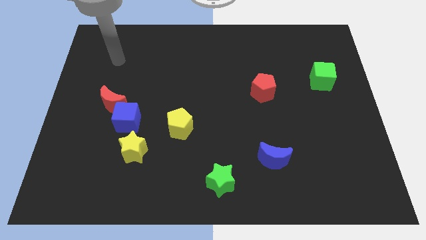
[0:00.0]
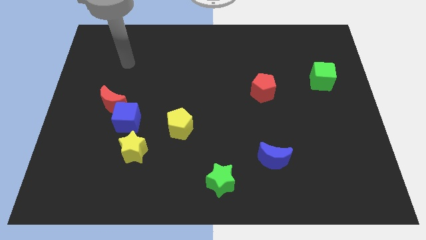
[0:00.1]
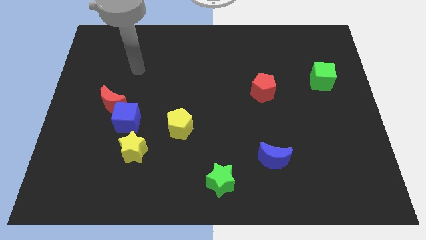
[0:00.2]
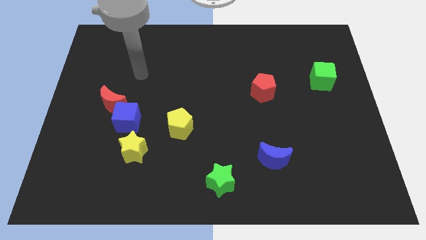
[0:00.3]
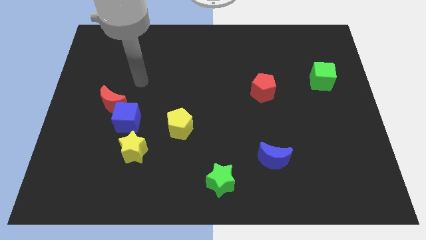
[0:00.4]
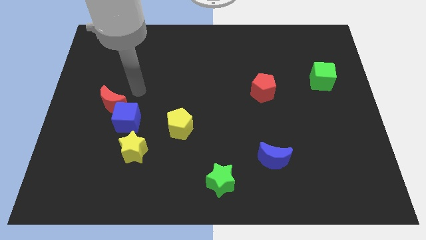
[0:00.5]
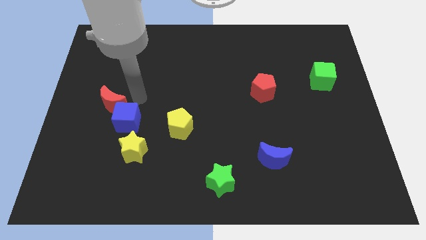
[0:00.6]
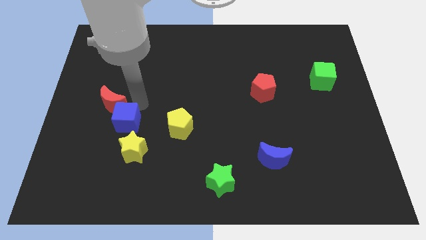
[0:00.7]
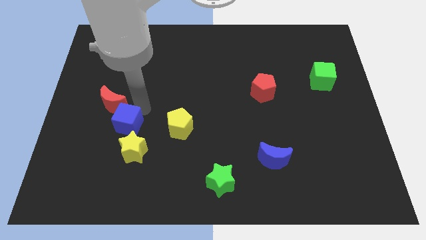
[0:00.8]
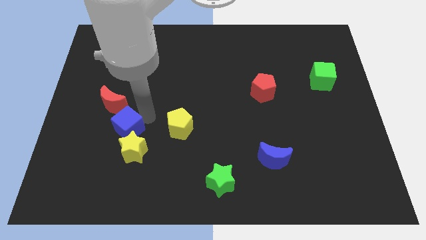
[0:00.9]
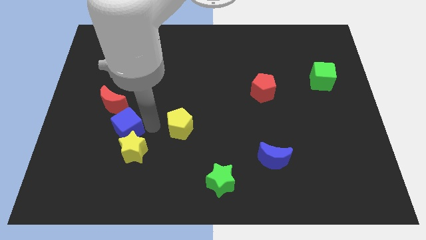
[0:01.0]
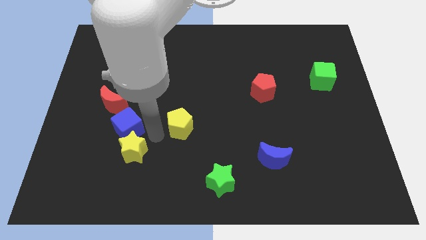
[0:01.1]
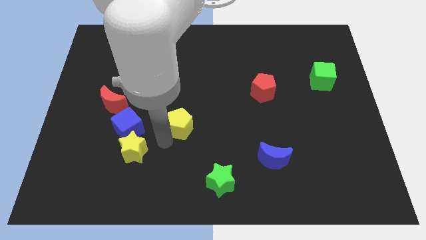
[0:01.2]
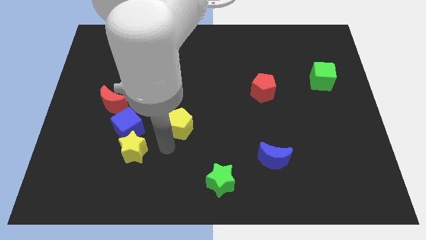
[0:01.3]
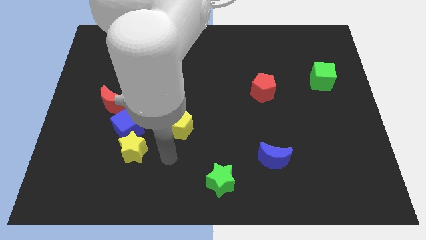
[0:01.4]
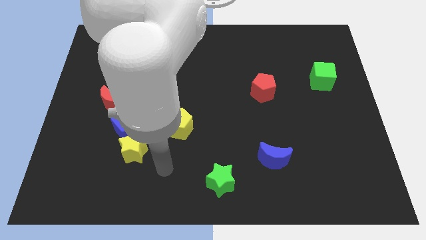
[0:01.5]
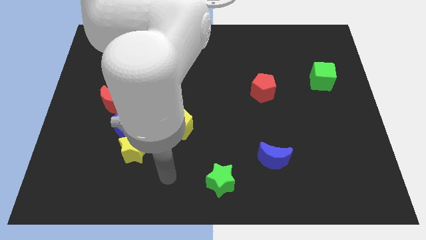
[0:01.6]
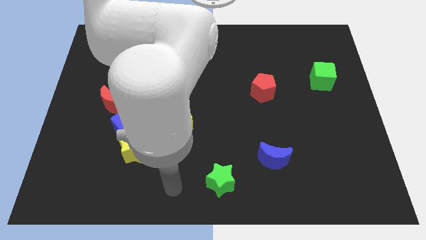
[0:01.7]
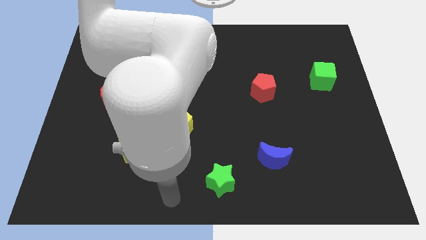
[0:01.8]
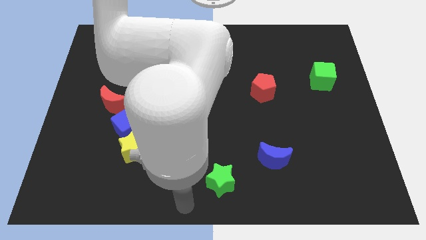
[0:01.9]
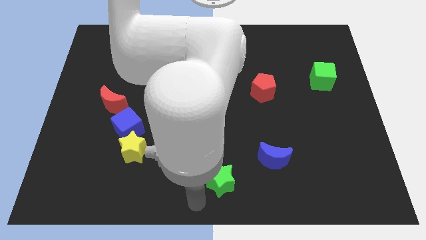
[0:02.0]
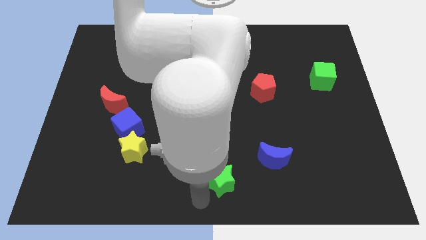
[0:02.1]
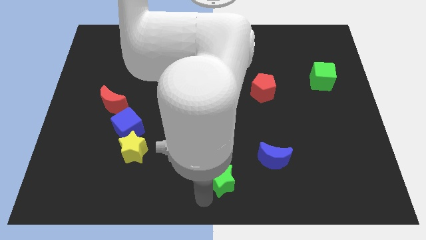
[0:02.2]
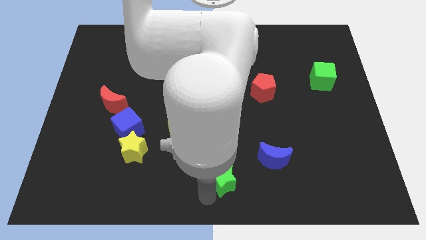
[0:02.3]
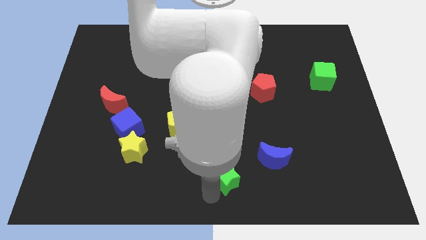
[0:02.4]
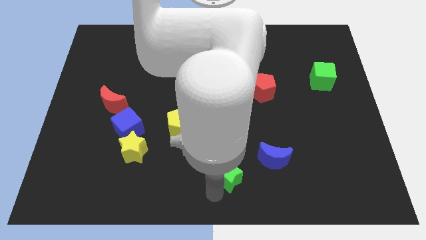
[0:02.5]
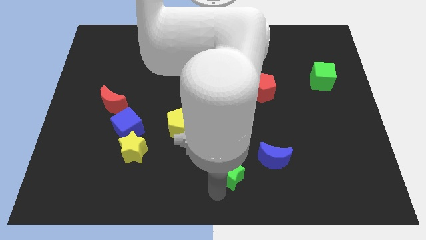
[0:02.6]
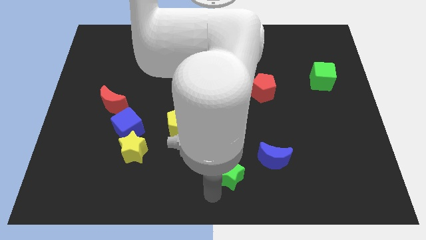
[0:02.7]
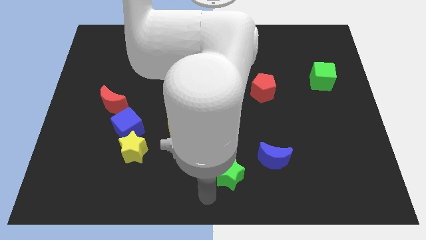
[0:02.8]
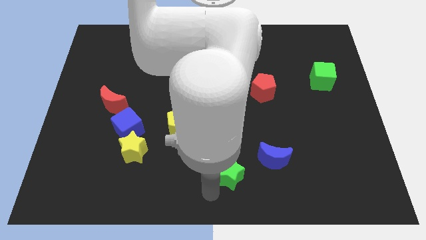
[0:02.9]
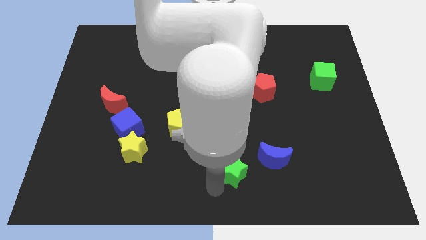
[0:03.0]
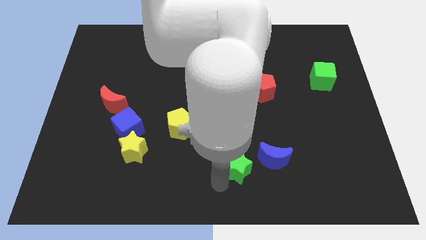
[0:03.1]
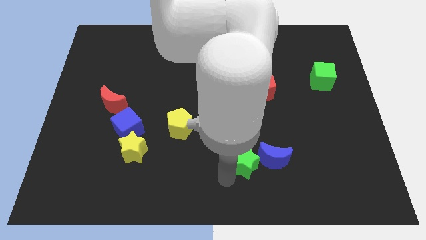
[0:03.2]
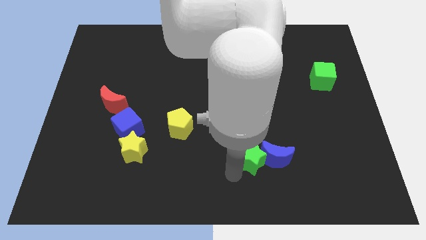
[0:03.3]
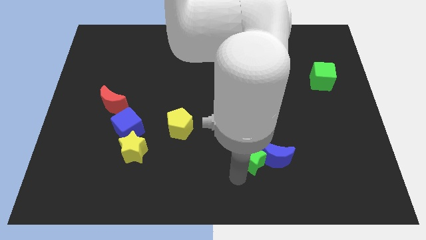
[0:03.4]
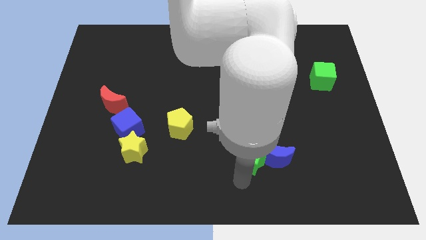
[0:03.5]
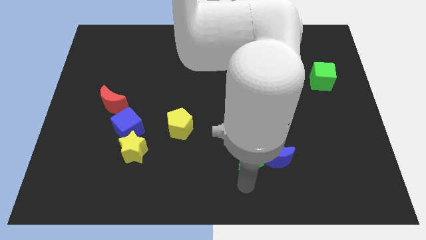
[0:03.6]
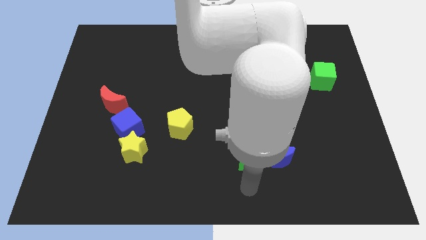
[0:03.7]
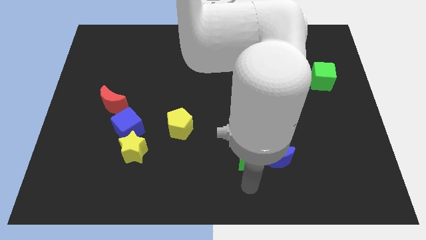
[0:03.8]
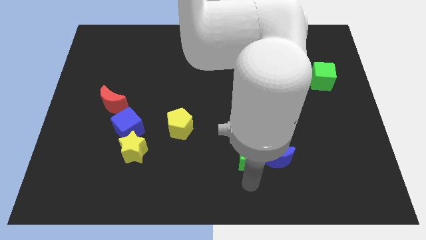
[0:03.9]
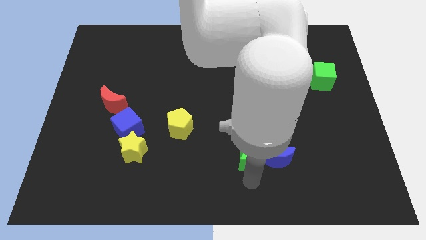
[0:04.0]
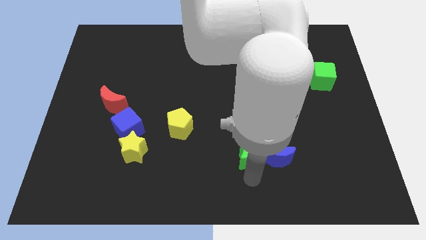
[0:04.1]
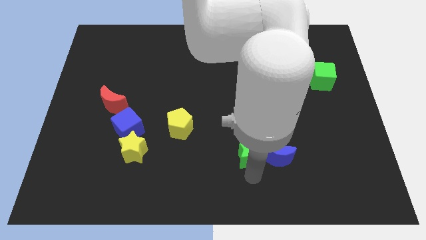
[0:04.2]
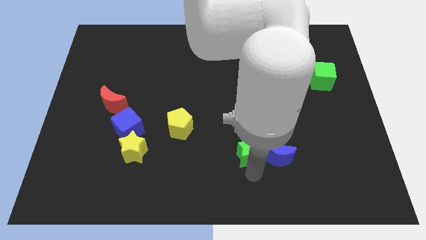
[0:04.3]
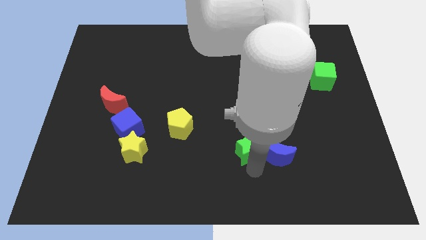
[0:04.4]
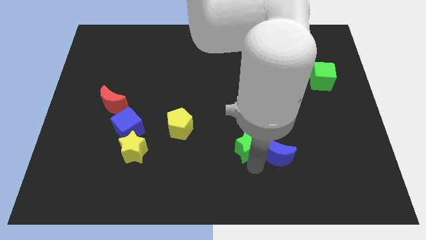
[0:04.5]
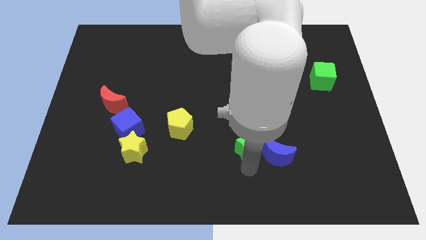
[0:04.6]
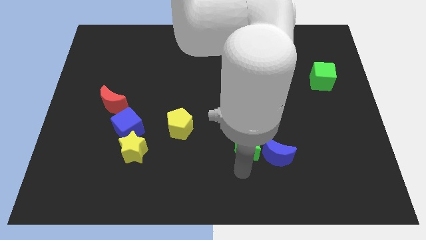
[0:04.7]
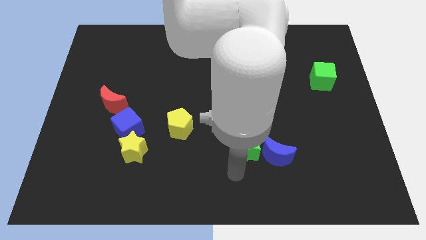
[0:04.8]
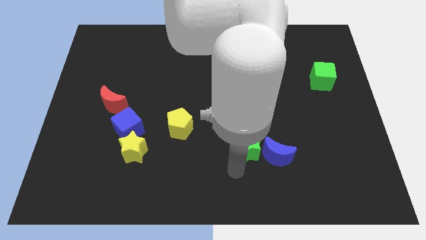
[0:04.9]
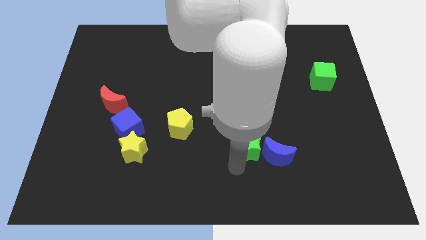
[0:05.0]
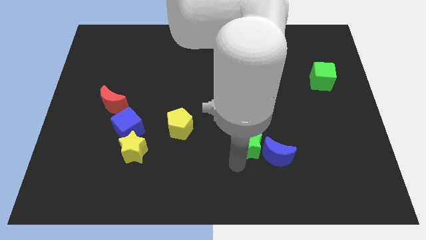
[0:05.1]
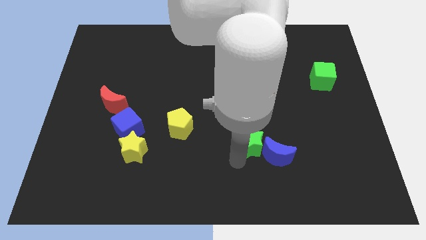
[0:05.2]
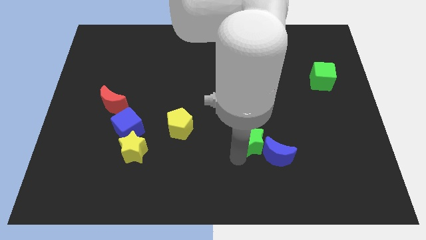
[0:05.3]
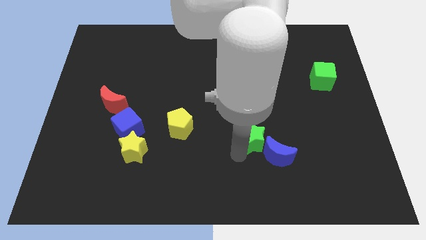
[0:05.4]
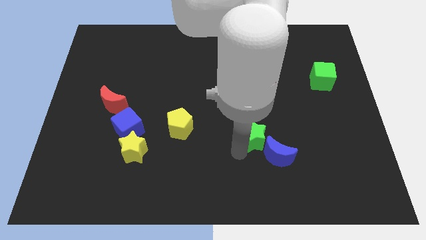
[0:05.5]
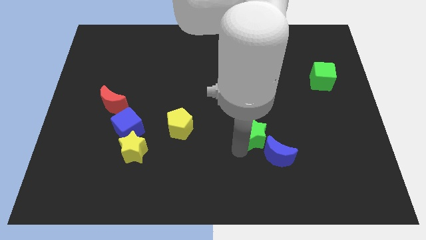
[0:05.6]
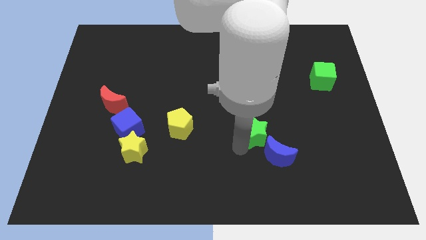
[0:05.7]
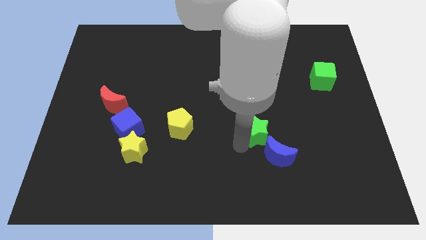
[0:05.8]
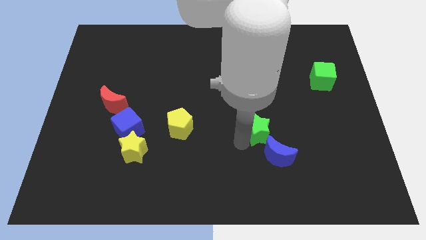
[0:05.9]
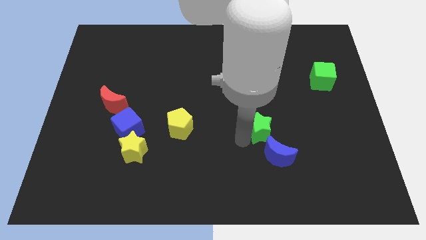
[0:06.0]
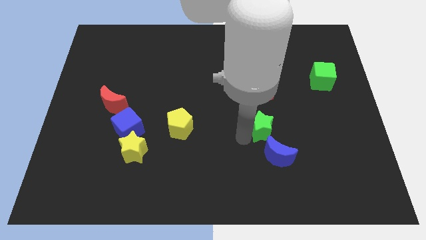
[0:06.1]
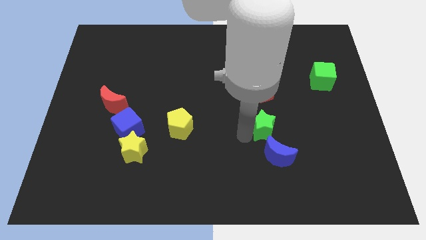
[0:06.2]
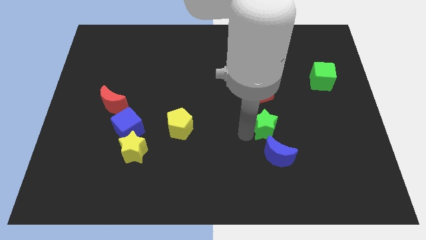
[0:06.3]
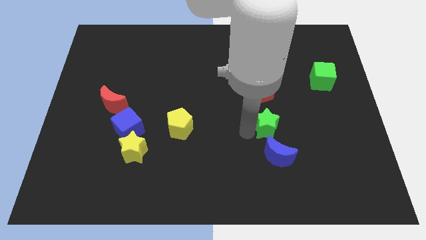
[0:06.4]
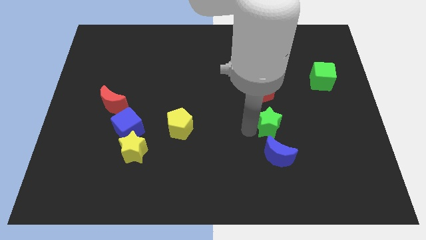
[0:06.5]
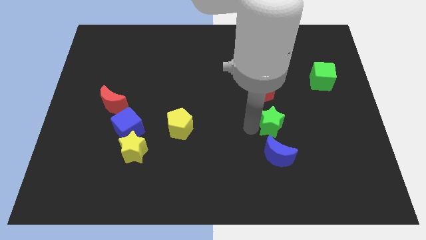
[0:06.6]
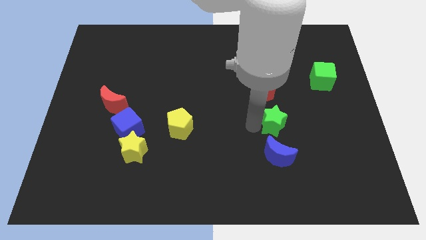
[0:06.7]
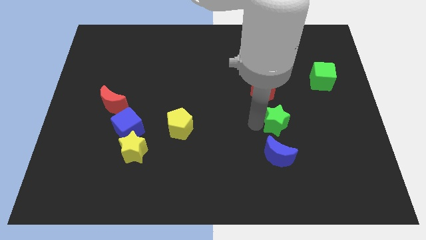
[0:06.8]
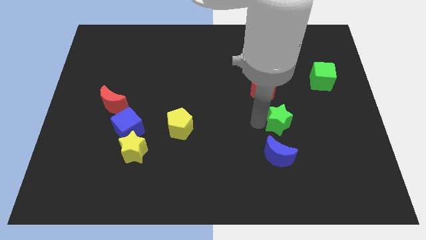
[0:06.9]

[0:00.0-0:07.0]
push the green star upwards and then to the right

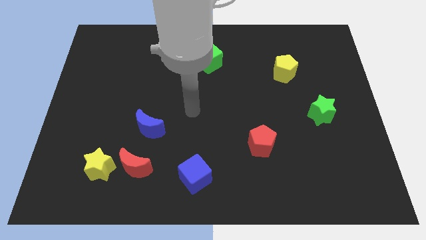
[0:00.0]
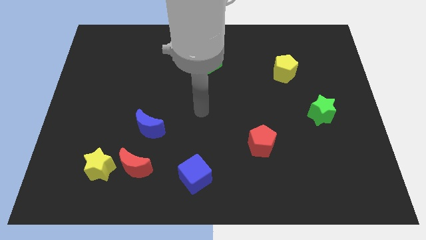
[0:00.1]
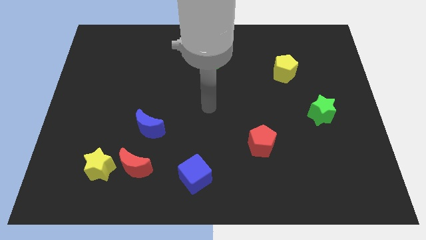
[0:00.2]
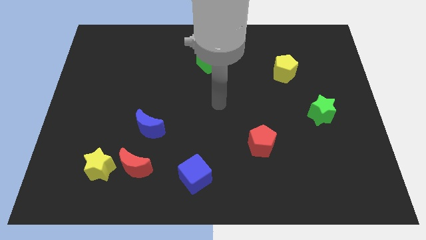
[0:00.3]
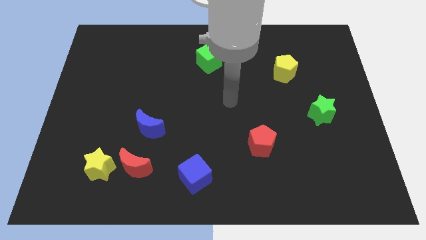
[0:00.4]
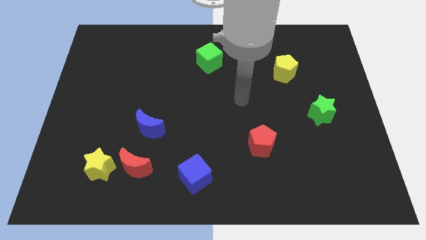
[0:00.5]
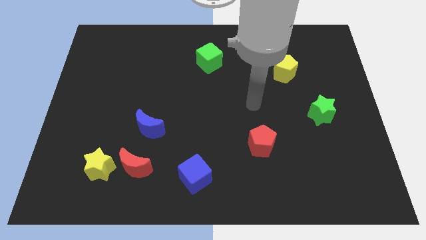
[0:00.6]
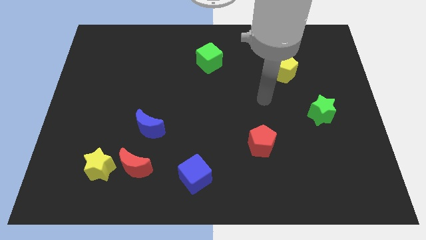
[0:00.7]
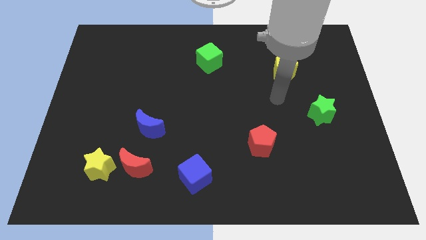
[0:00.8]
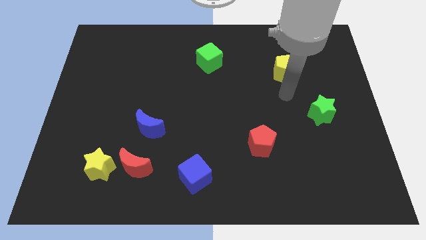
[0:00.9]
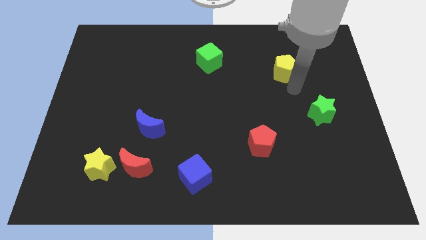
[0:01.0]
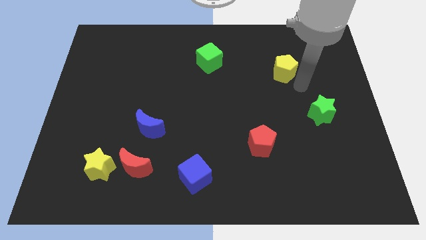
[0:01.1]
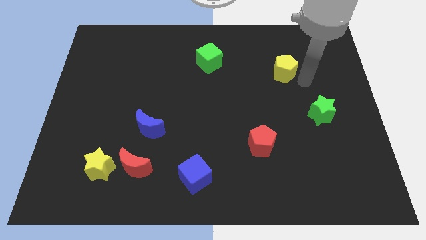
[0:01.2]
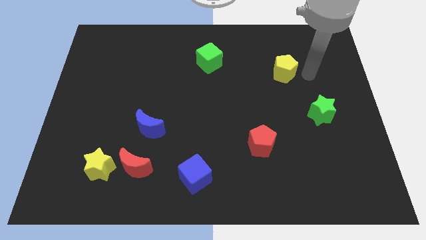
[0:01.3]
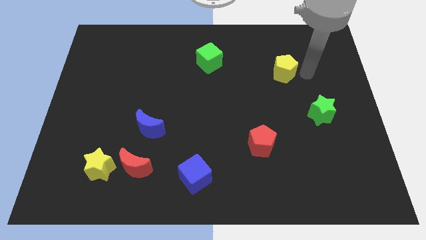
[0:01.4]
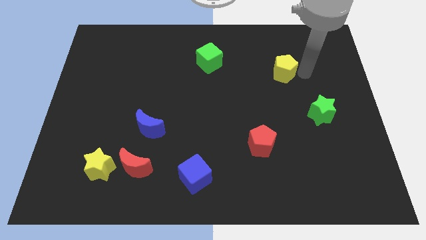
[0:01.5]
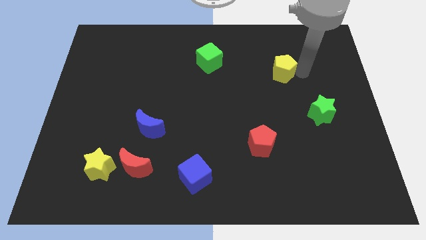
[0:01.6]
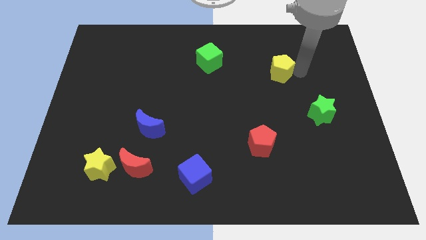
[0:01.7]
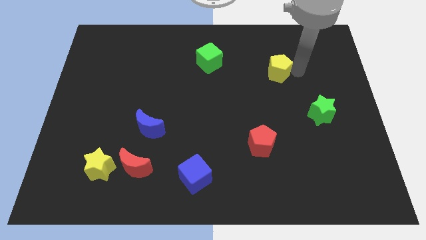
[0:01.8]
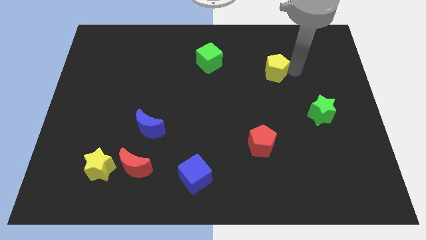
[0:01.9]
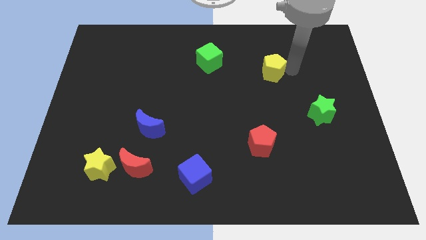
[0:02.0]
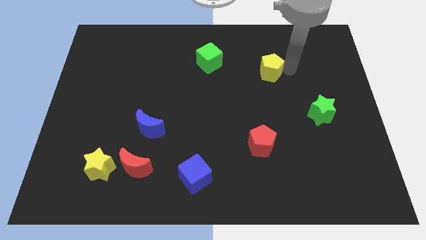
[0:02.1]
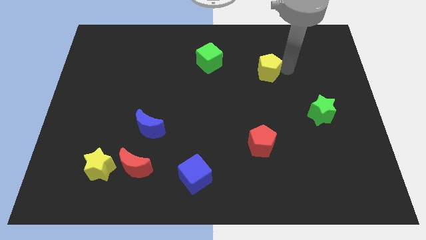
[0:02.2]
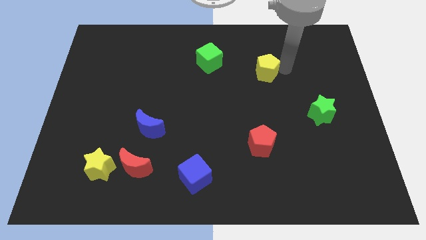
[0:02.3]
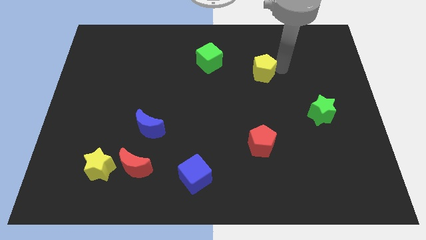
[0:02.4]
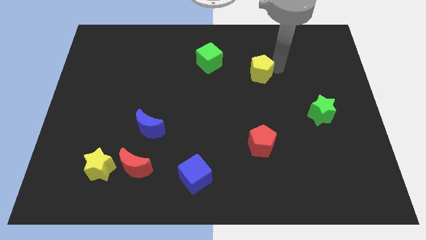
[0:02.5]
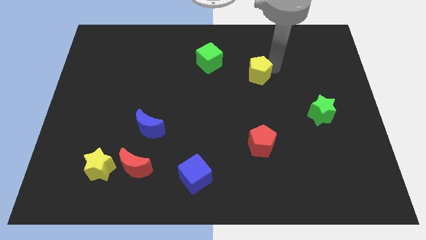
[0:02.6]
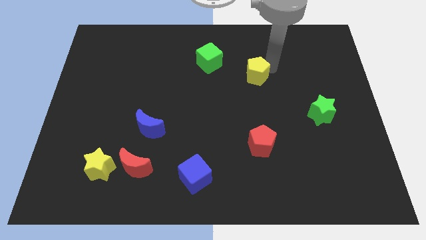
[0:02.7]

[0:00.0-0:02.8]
move the yellow pentagon a little bit left
